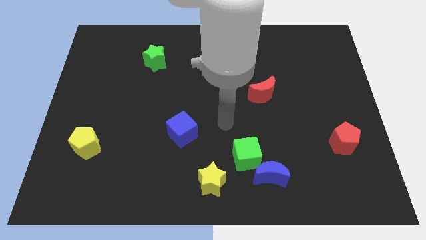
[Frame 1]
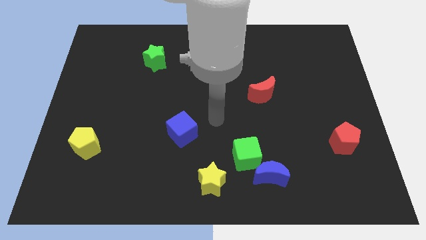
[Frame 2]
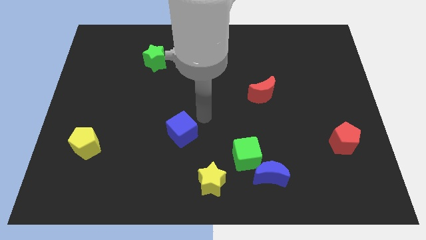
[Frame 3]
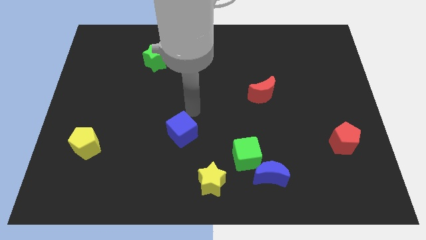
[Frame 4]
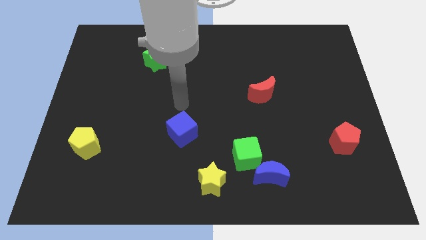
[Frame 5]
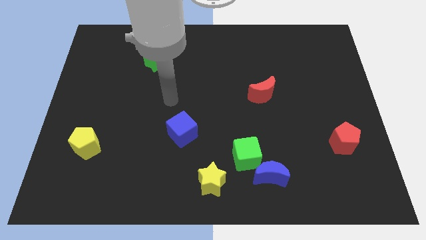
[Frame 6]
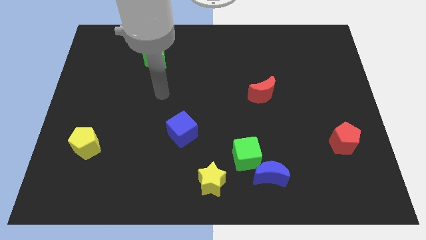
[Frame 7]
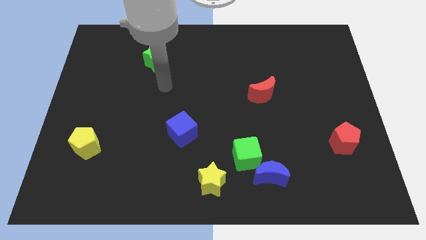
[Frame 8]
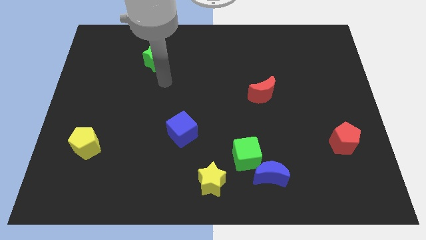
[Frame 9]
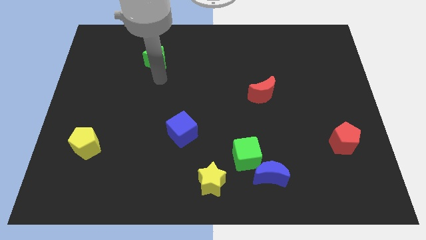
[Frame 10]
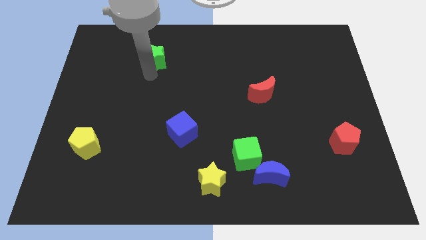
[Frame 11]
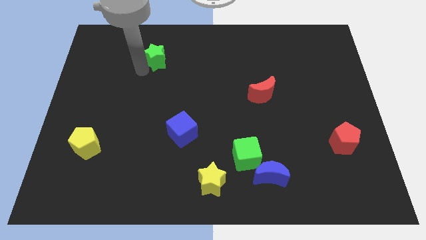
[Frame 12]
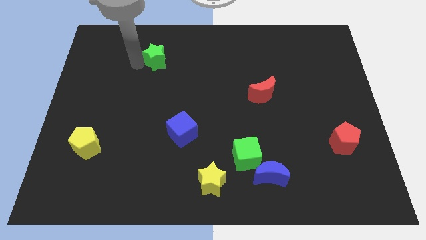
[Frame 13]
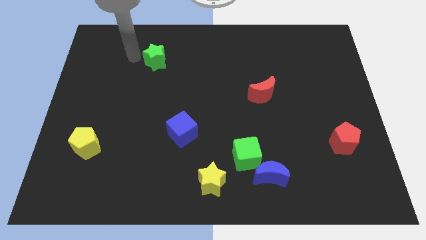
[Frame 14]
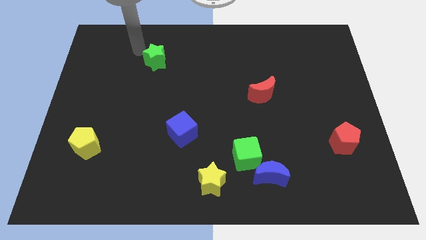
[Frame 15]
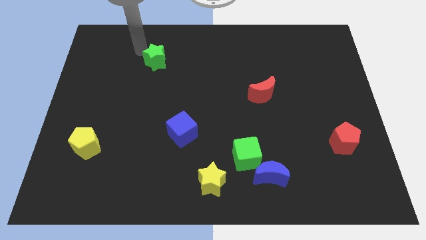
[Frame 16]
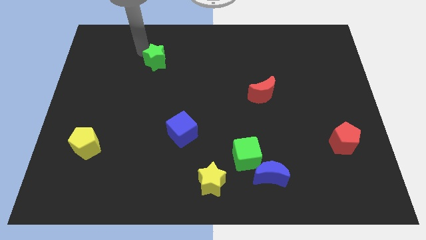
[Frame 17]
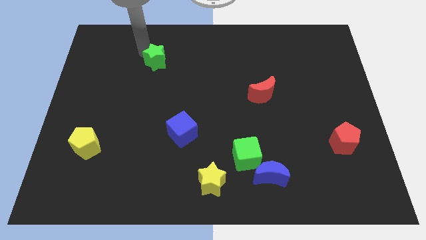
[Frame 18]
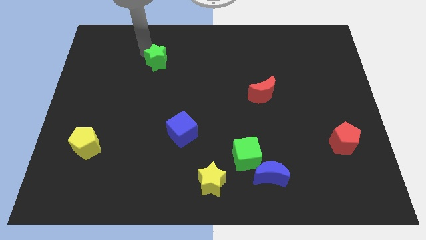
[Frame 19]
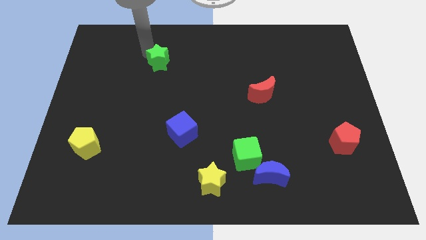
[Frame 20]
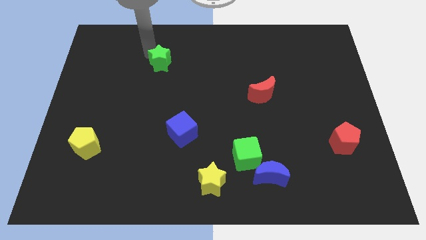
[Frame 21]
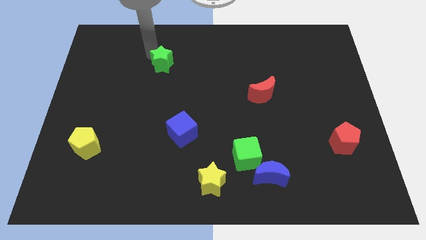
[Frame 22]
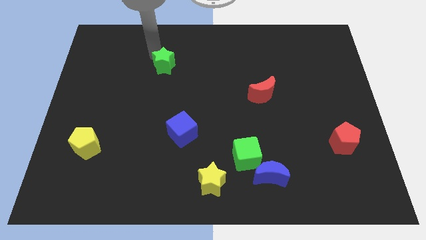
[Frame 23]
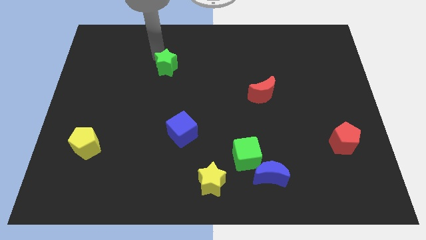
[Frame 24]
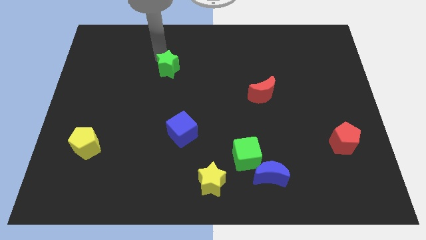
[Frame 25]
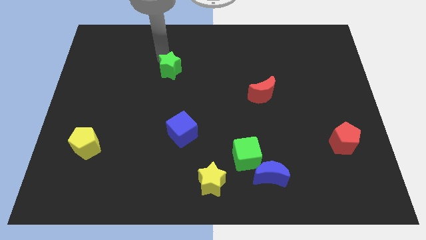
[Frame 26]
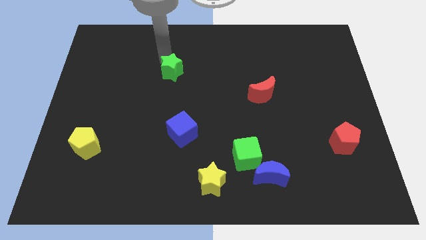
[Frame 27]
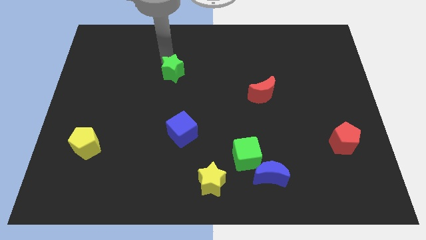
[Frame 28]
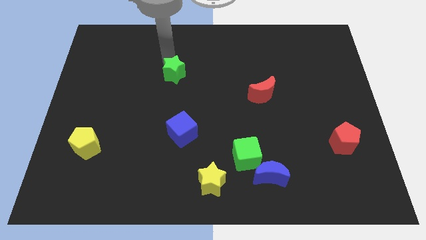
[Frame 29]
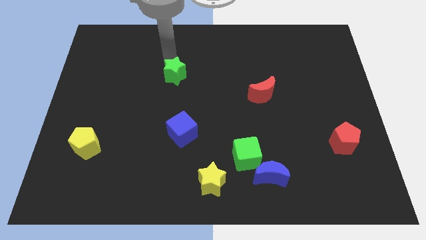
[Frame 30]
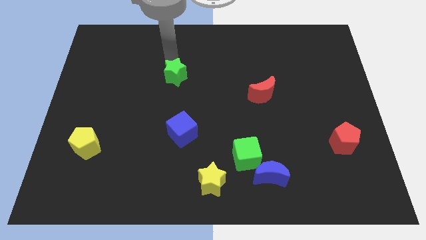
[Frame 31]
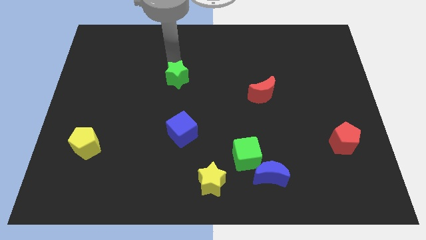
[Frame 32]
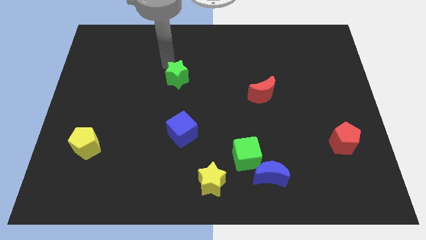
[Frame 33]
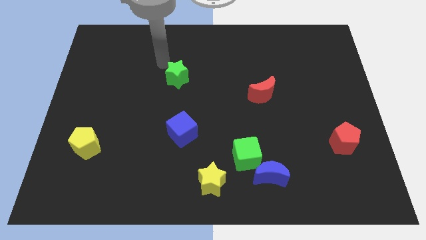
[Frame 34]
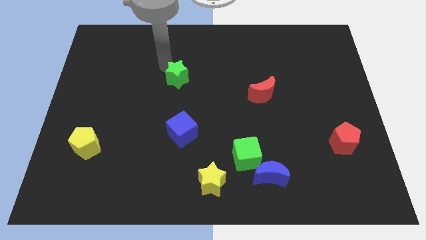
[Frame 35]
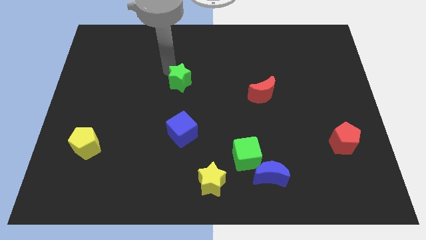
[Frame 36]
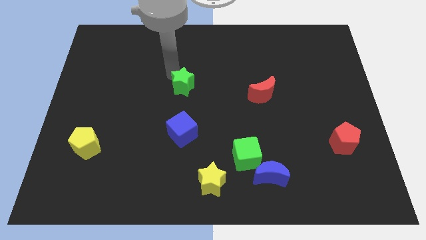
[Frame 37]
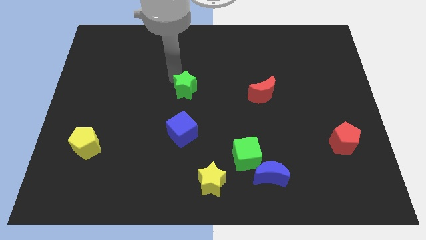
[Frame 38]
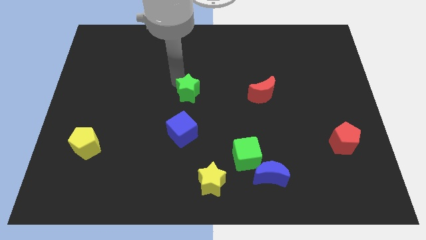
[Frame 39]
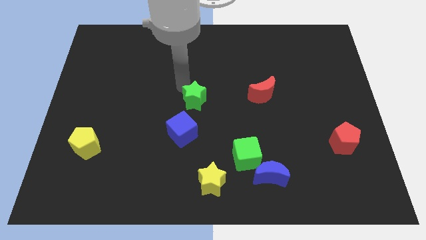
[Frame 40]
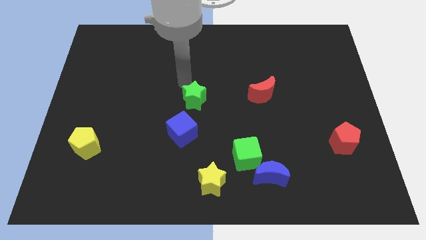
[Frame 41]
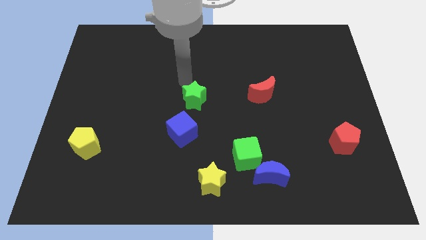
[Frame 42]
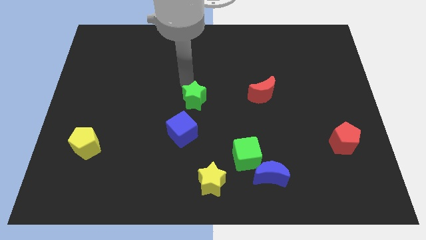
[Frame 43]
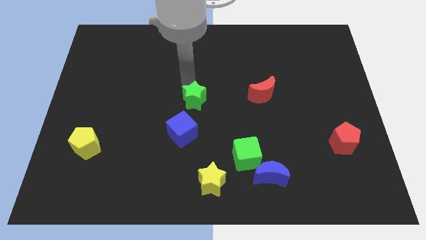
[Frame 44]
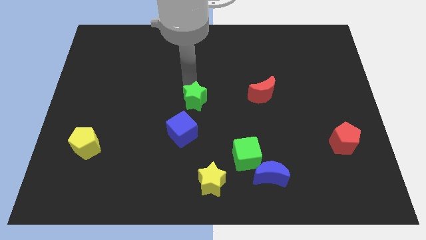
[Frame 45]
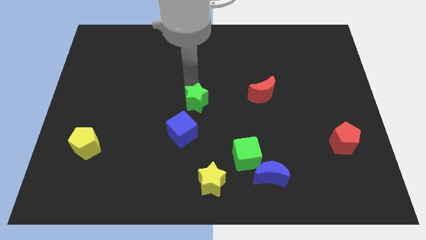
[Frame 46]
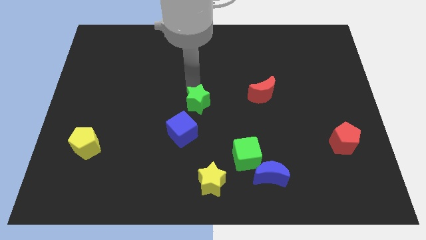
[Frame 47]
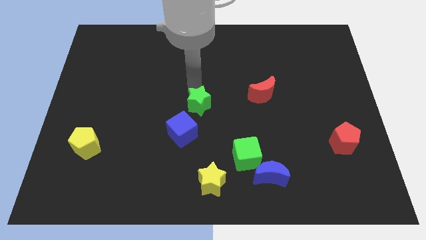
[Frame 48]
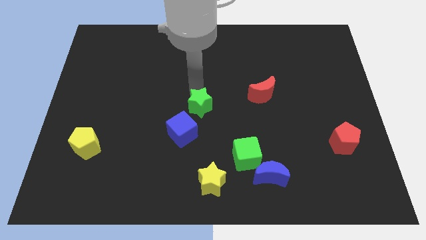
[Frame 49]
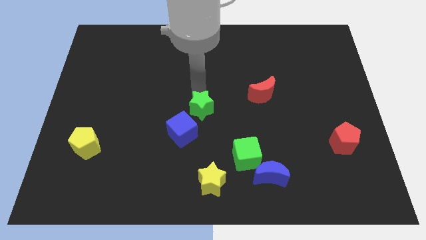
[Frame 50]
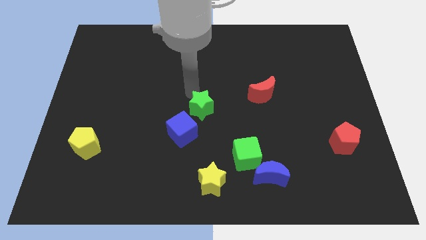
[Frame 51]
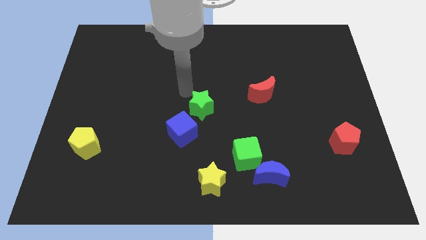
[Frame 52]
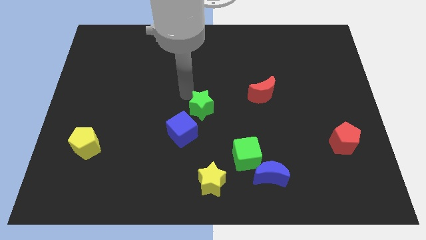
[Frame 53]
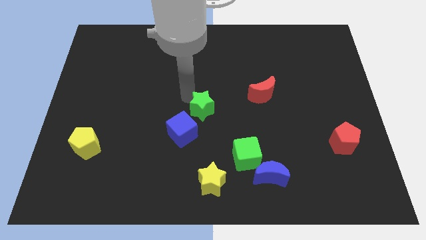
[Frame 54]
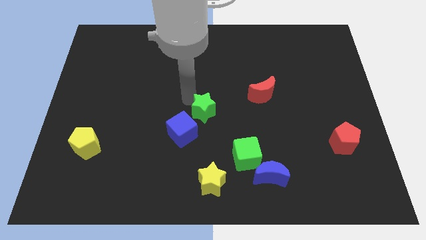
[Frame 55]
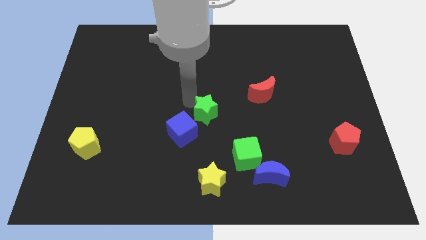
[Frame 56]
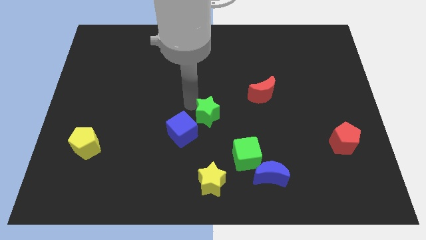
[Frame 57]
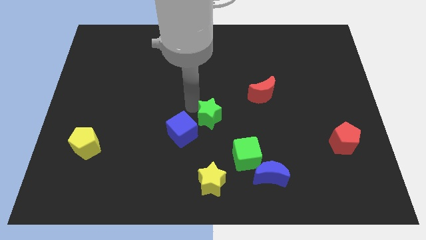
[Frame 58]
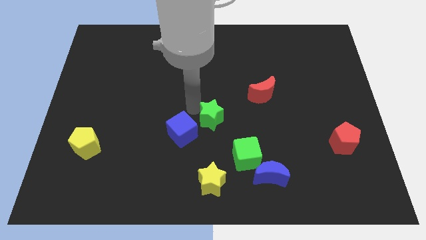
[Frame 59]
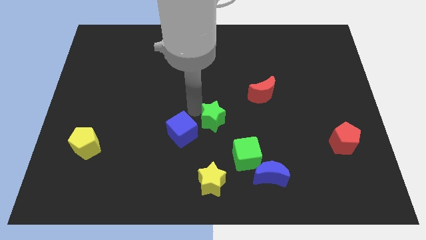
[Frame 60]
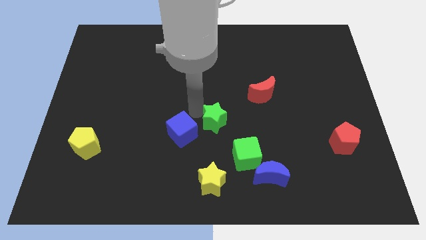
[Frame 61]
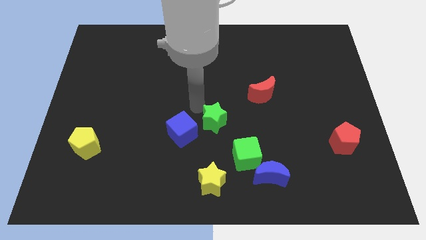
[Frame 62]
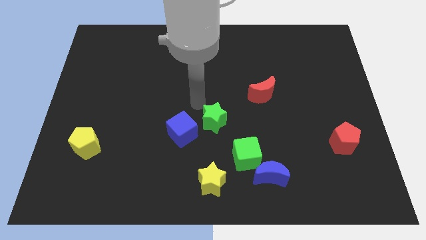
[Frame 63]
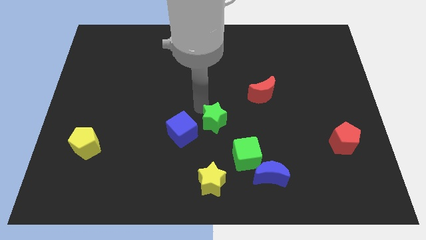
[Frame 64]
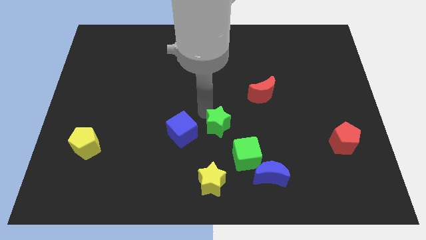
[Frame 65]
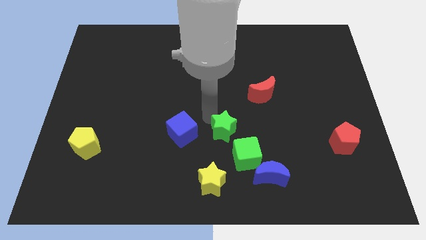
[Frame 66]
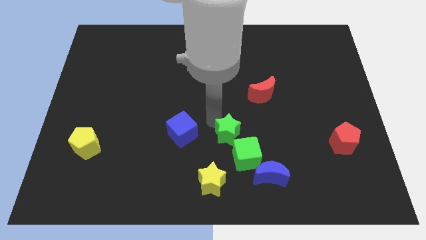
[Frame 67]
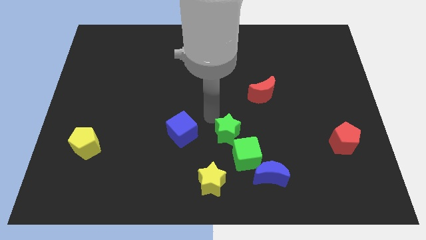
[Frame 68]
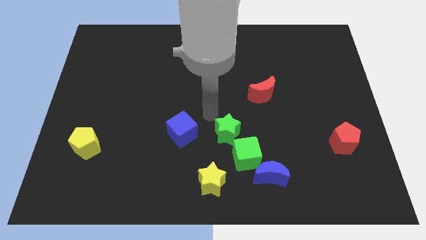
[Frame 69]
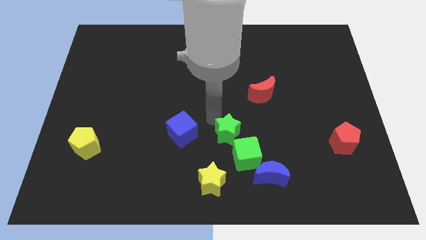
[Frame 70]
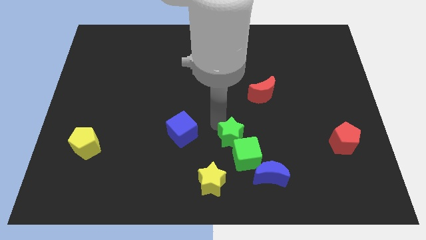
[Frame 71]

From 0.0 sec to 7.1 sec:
slide the green star to the top left of the blue moon
